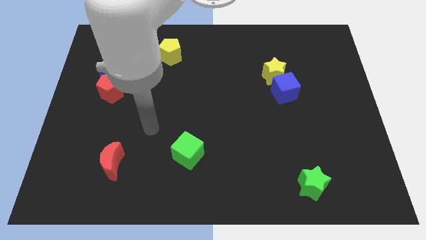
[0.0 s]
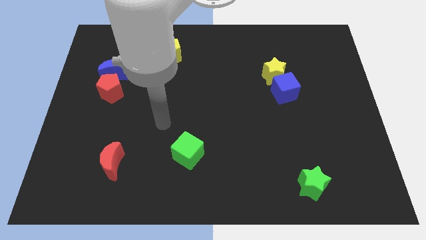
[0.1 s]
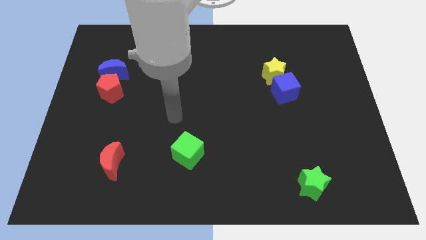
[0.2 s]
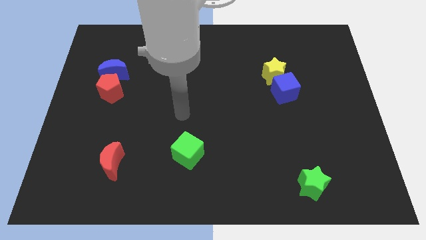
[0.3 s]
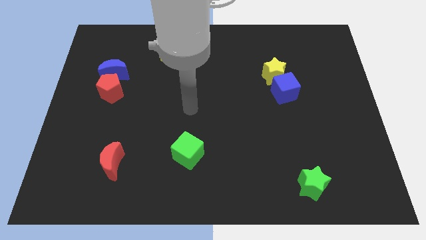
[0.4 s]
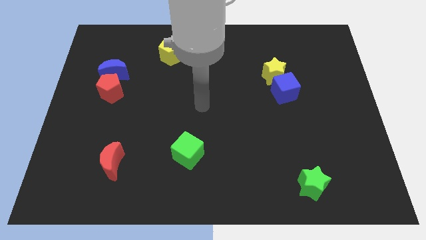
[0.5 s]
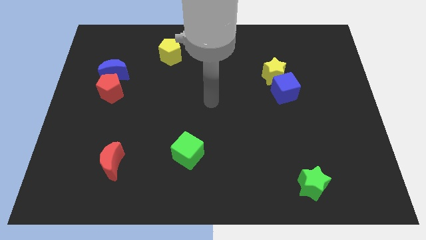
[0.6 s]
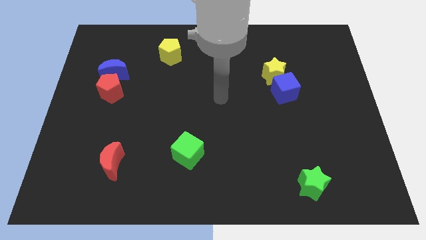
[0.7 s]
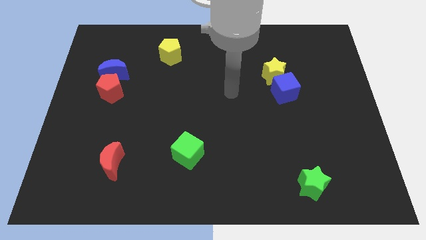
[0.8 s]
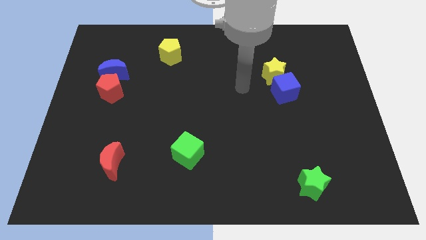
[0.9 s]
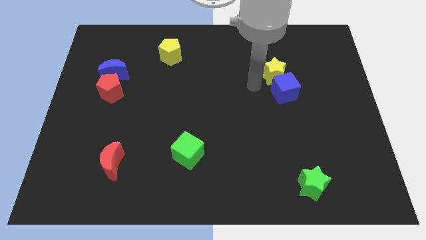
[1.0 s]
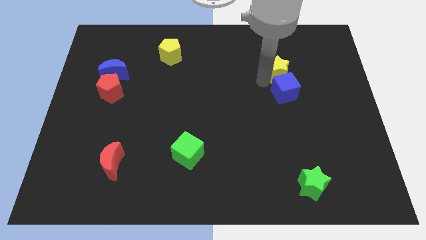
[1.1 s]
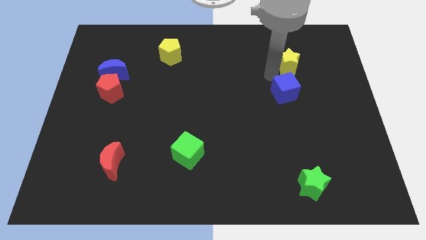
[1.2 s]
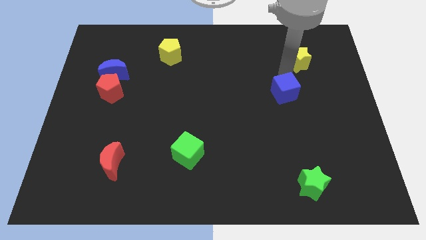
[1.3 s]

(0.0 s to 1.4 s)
separate the blue cube from the yellow star

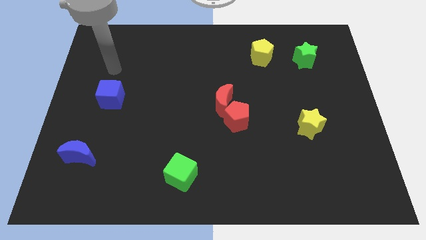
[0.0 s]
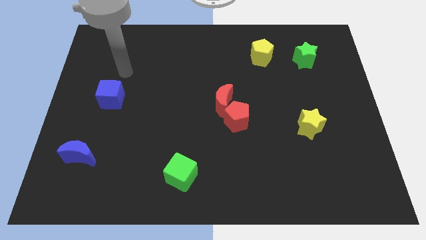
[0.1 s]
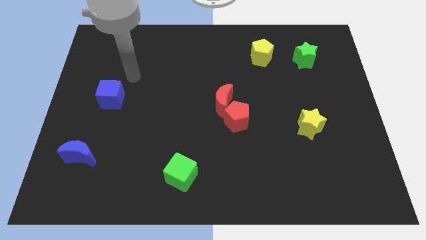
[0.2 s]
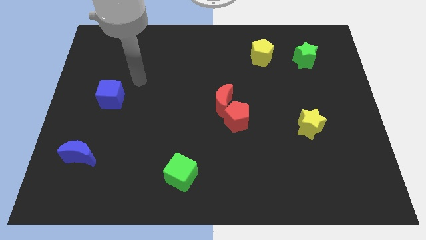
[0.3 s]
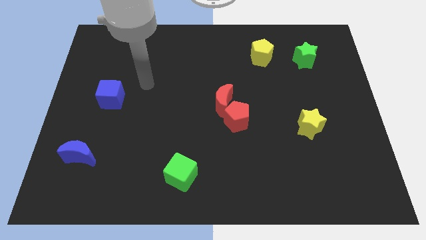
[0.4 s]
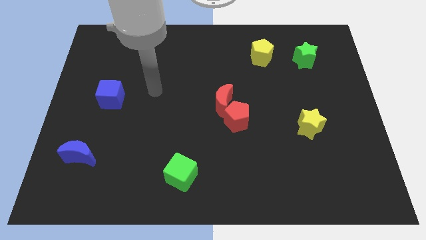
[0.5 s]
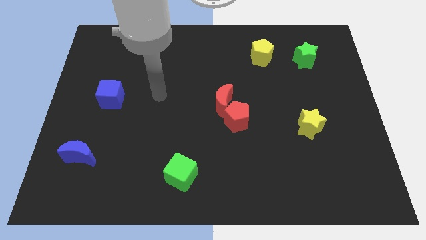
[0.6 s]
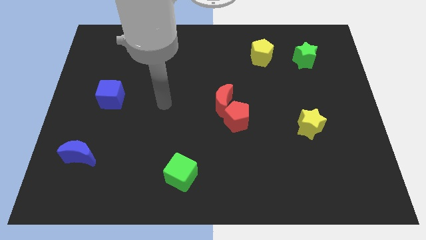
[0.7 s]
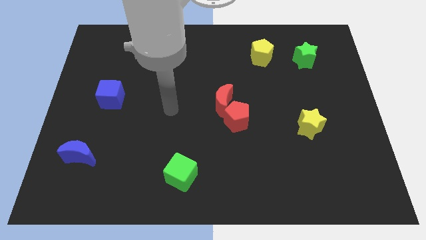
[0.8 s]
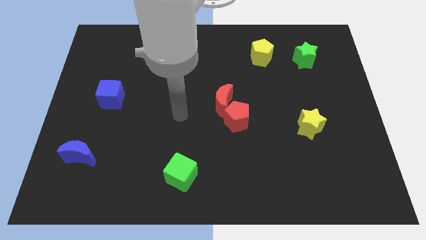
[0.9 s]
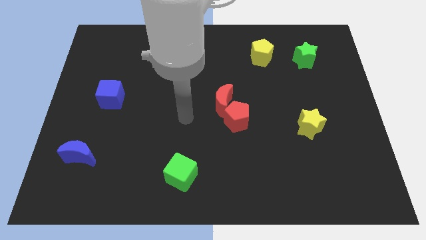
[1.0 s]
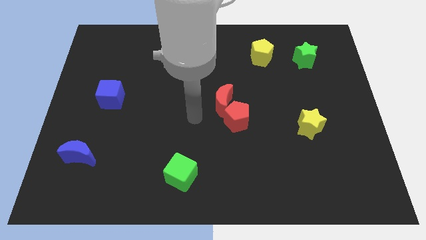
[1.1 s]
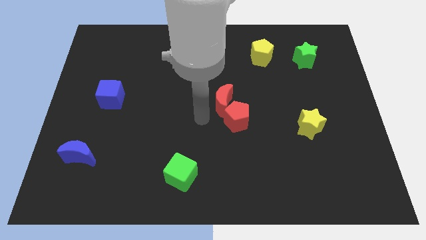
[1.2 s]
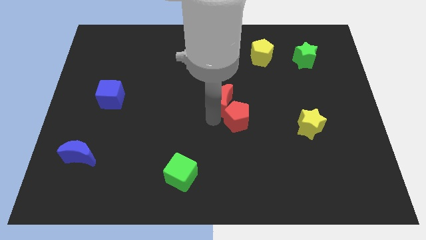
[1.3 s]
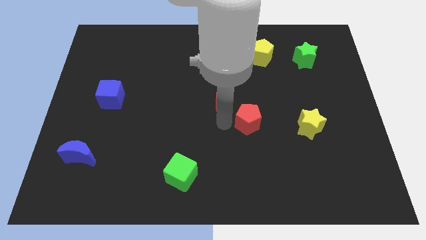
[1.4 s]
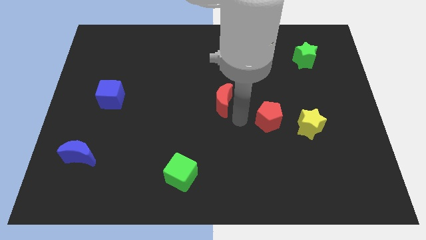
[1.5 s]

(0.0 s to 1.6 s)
separate the red moon from the red pentagon

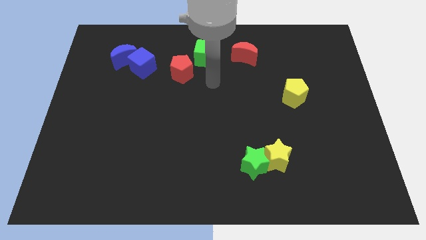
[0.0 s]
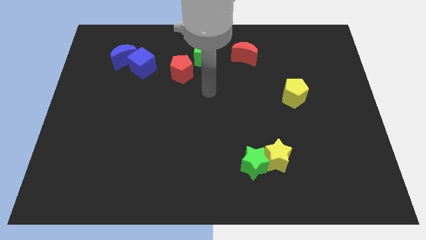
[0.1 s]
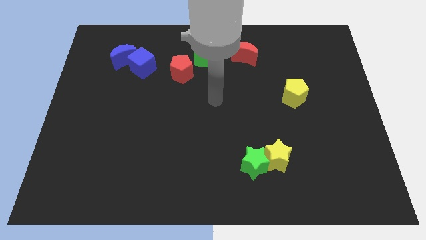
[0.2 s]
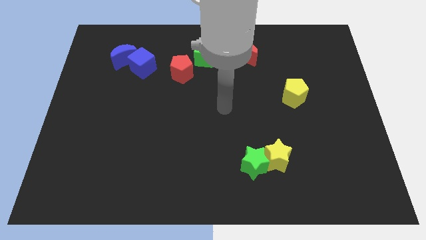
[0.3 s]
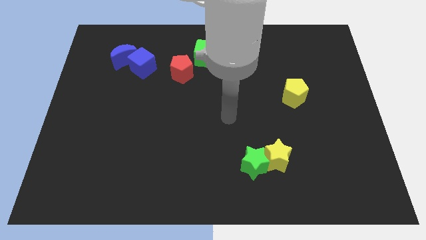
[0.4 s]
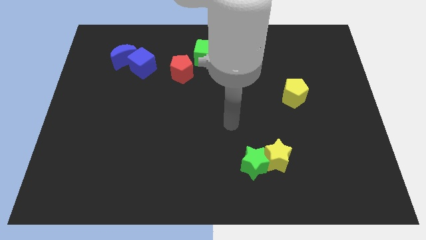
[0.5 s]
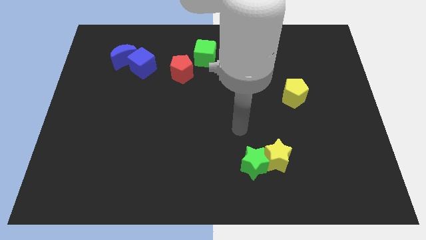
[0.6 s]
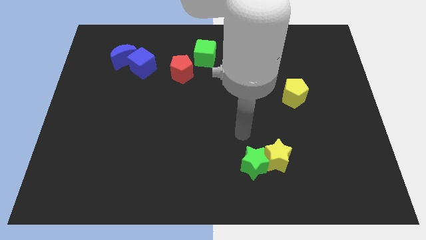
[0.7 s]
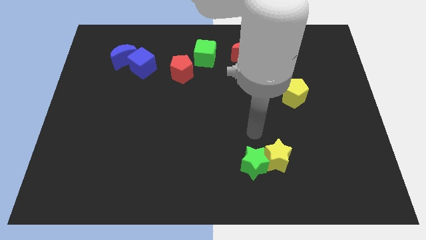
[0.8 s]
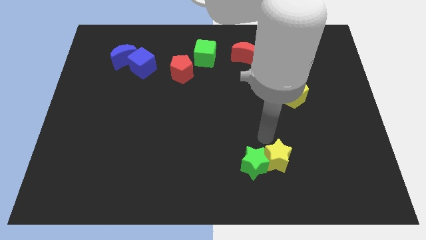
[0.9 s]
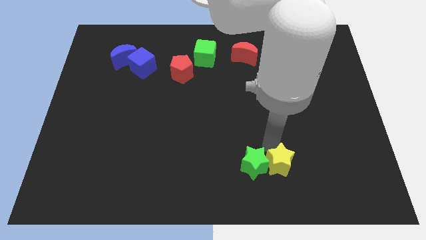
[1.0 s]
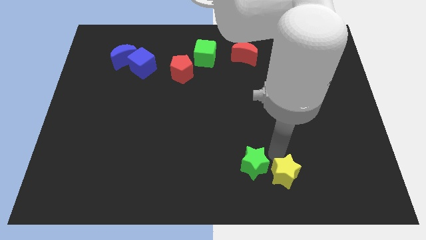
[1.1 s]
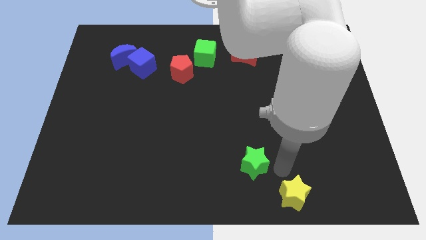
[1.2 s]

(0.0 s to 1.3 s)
move the green star away from the yellow star

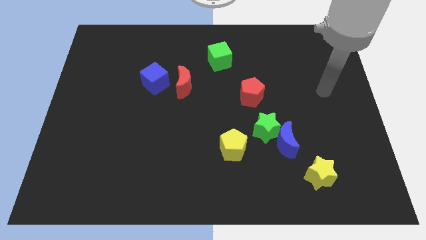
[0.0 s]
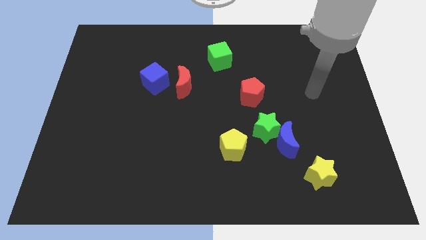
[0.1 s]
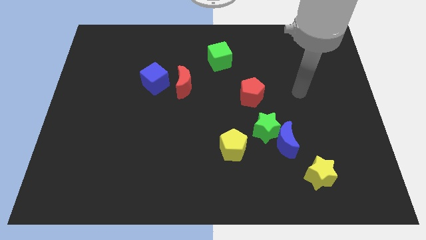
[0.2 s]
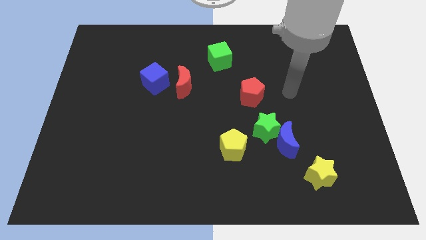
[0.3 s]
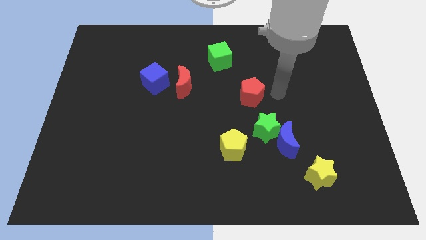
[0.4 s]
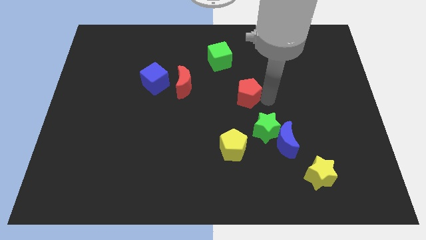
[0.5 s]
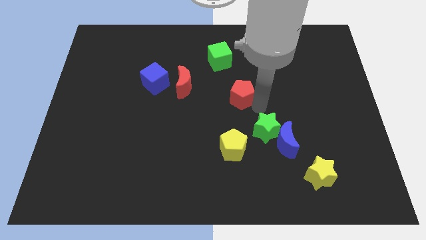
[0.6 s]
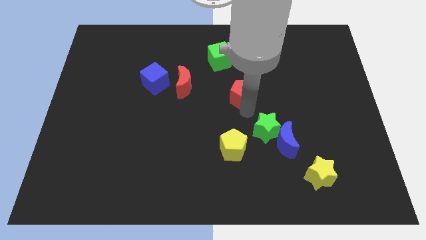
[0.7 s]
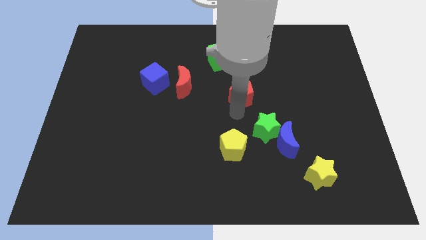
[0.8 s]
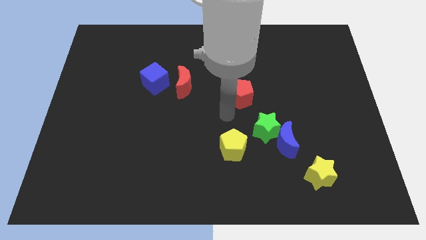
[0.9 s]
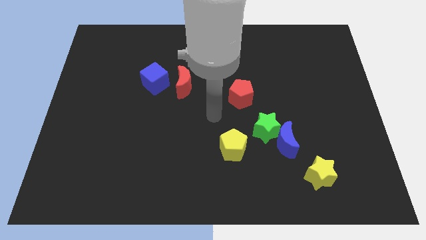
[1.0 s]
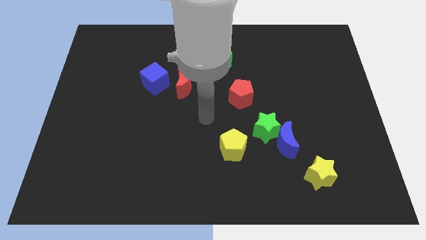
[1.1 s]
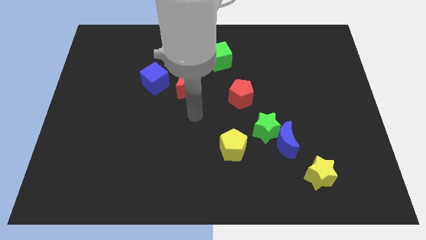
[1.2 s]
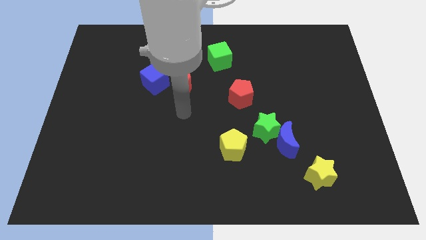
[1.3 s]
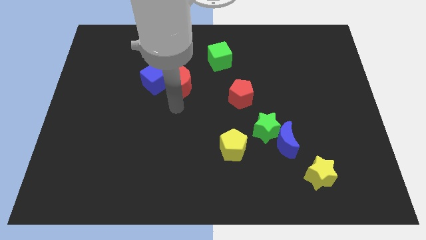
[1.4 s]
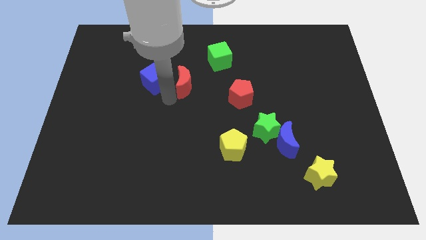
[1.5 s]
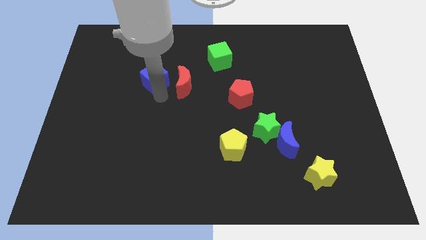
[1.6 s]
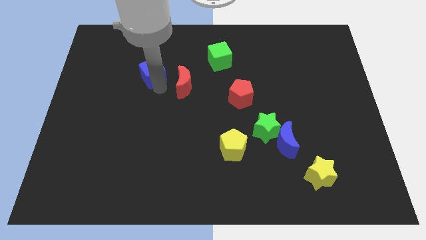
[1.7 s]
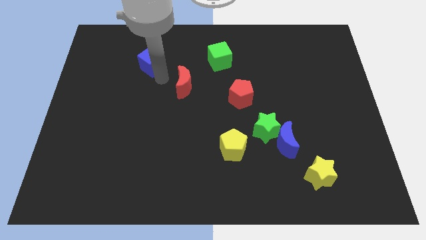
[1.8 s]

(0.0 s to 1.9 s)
separate the red moon from the blue cube

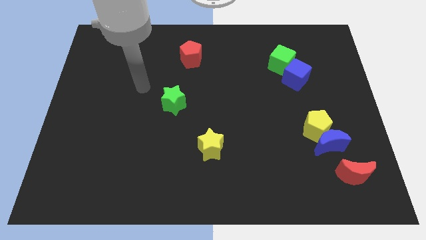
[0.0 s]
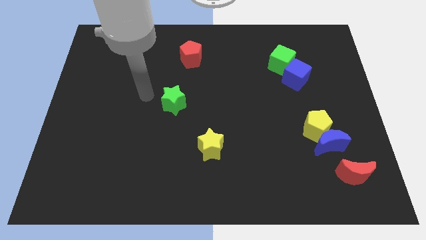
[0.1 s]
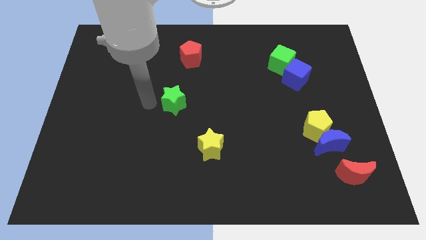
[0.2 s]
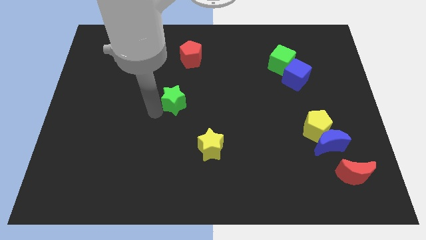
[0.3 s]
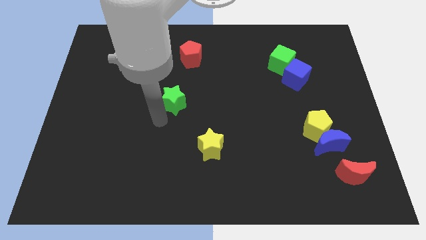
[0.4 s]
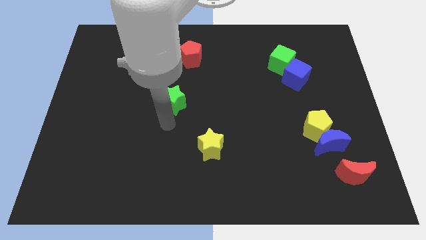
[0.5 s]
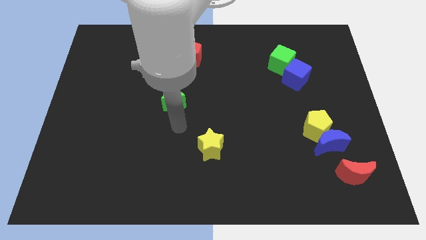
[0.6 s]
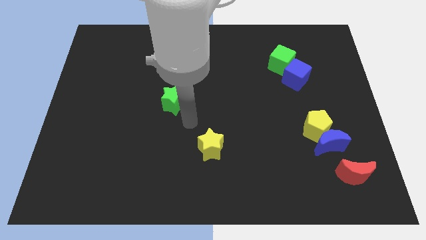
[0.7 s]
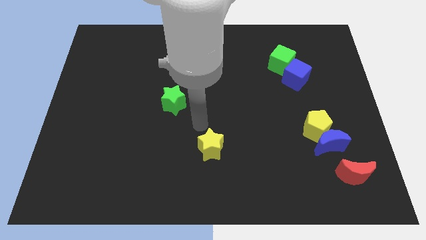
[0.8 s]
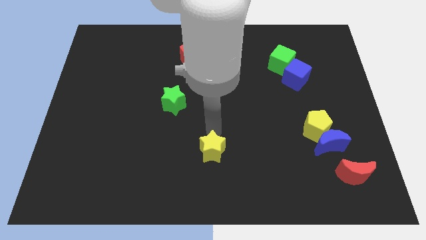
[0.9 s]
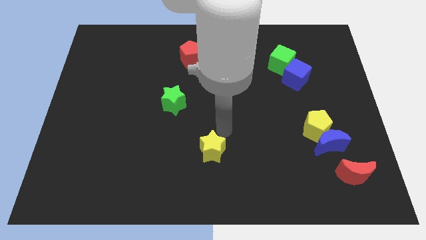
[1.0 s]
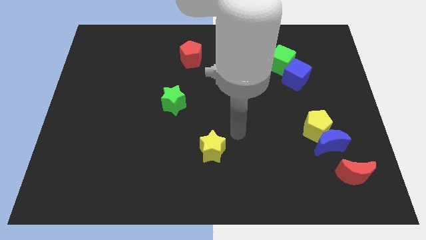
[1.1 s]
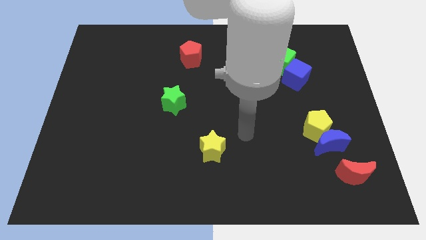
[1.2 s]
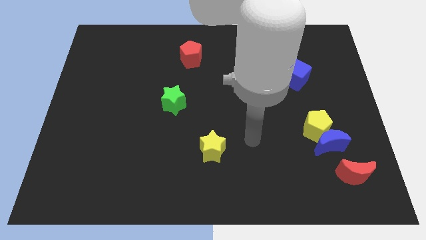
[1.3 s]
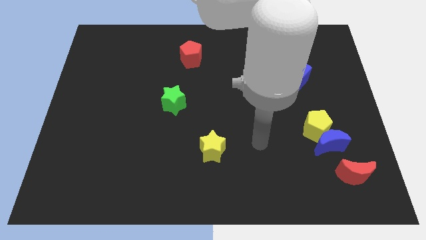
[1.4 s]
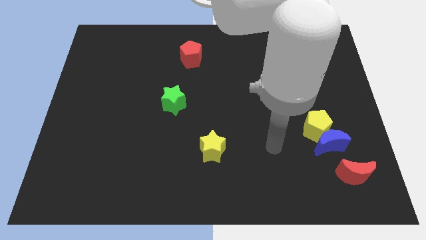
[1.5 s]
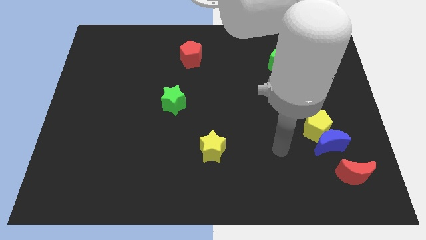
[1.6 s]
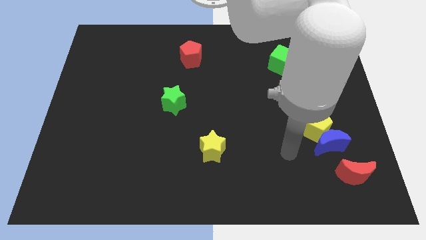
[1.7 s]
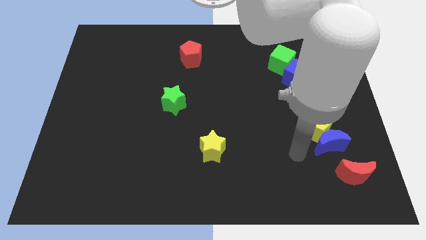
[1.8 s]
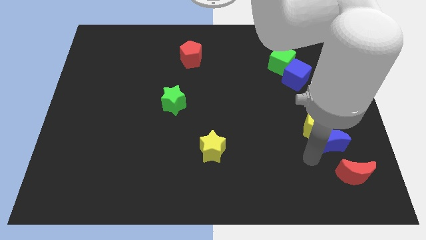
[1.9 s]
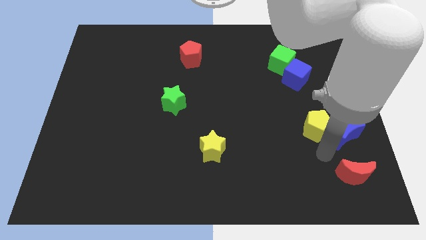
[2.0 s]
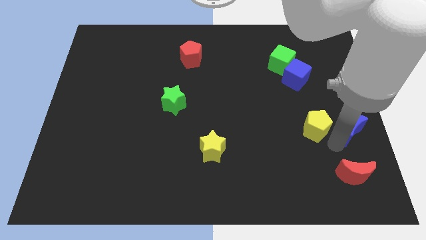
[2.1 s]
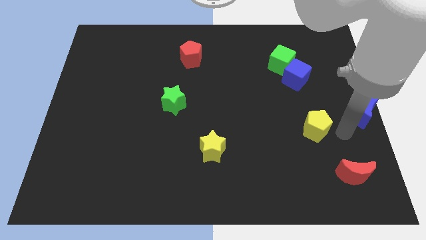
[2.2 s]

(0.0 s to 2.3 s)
move the yellow pentagon away from the blue moon

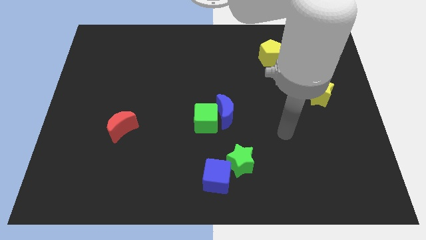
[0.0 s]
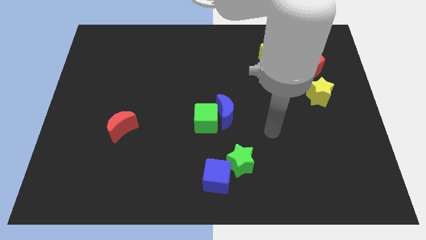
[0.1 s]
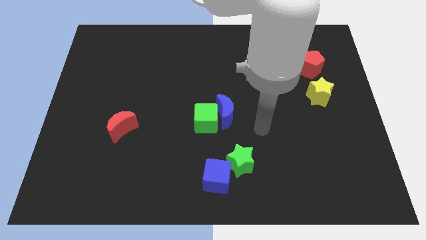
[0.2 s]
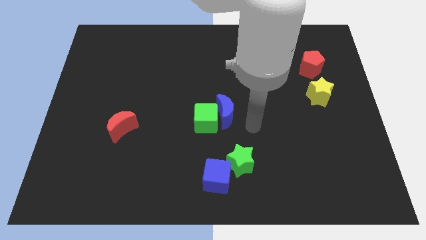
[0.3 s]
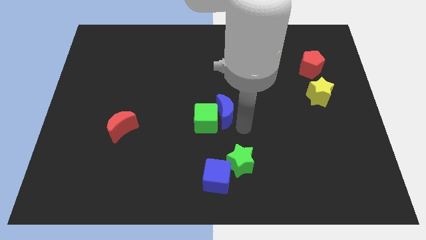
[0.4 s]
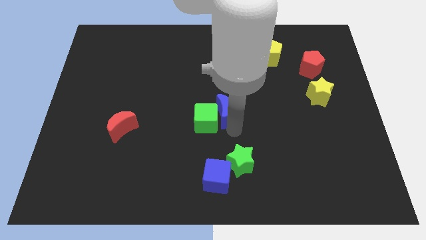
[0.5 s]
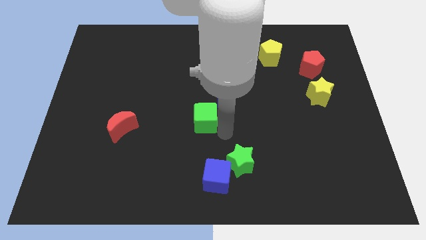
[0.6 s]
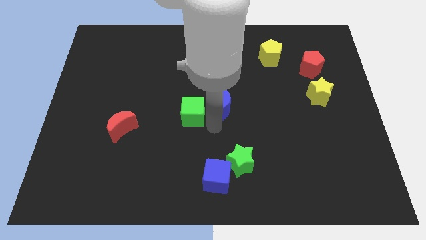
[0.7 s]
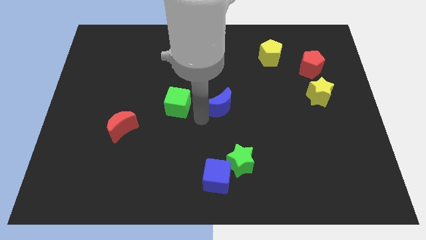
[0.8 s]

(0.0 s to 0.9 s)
separate the blue moon from the green cube
